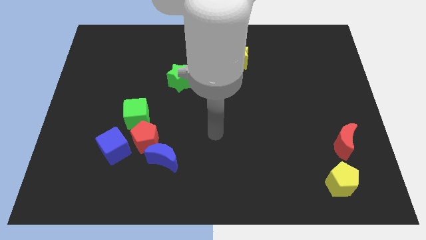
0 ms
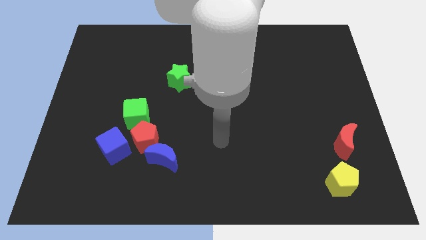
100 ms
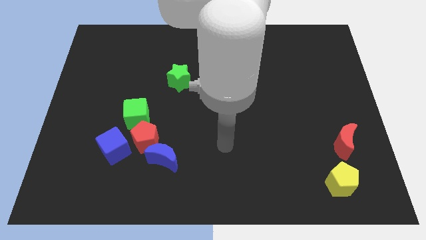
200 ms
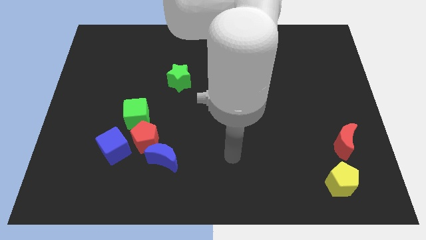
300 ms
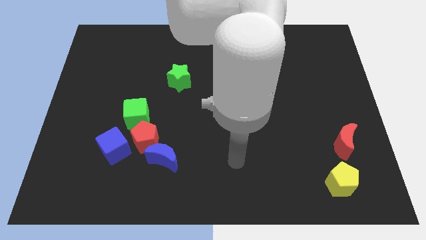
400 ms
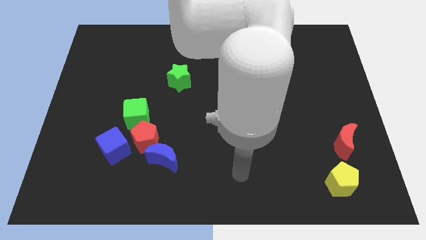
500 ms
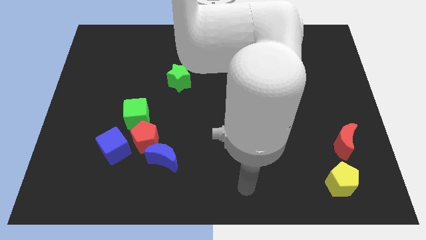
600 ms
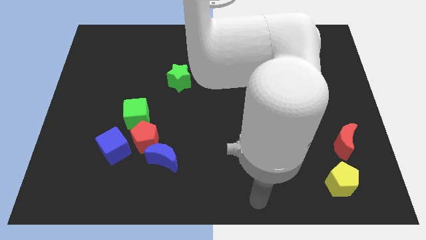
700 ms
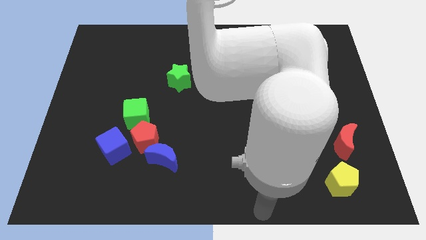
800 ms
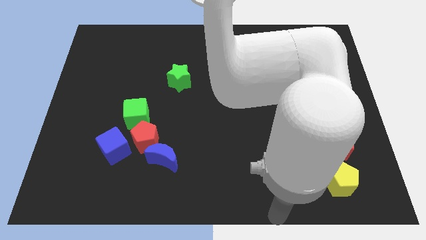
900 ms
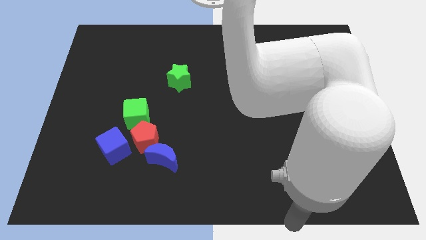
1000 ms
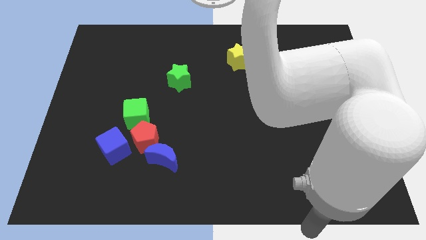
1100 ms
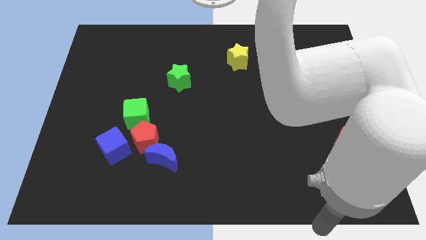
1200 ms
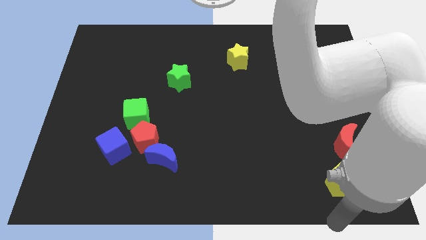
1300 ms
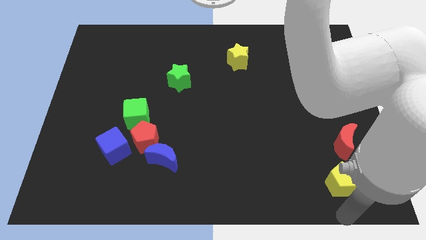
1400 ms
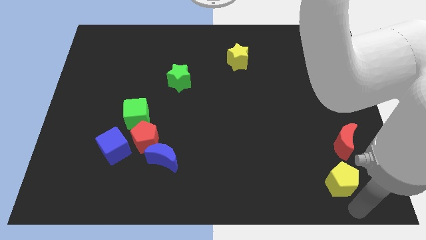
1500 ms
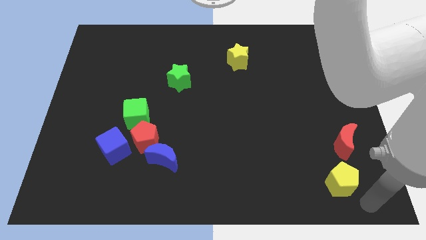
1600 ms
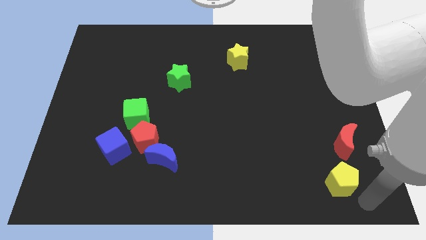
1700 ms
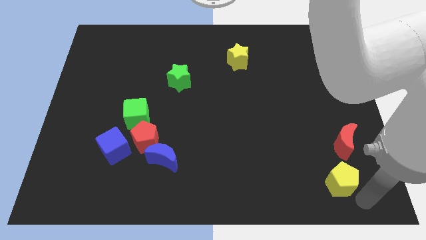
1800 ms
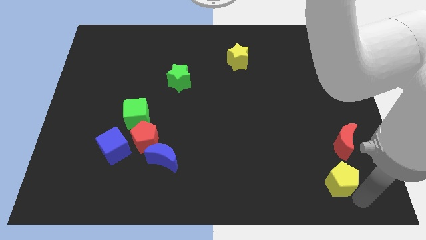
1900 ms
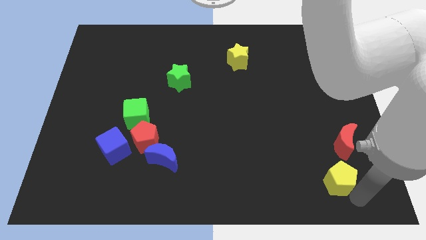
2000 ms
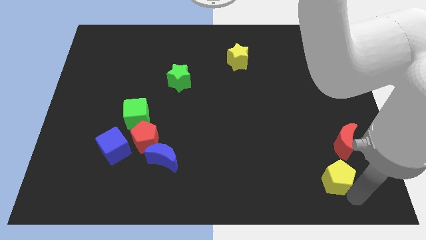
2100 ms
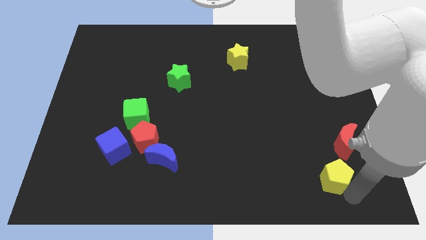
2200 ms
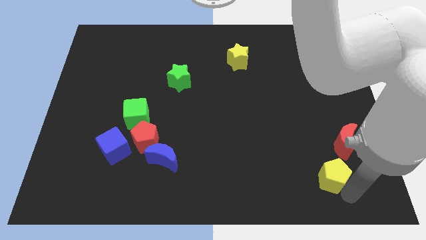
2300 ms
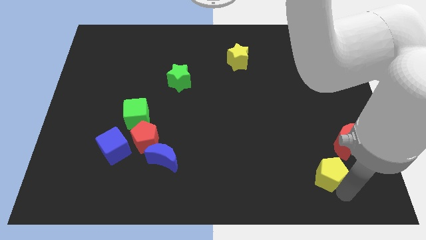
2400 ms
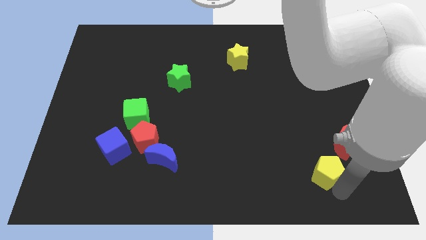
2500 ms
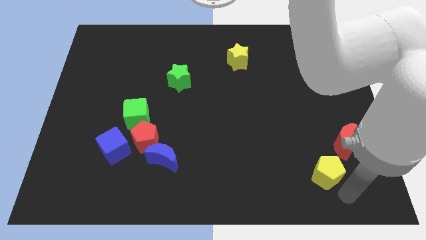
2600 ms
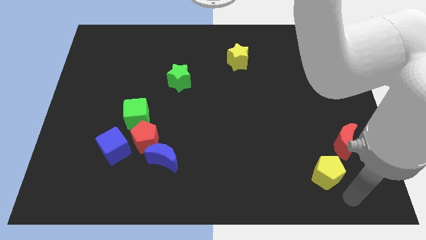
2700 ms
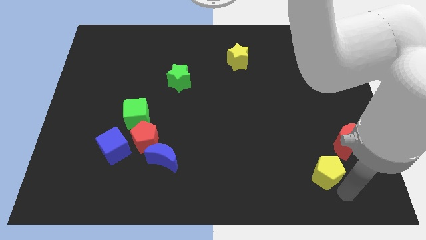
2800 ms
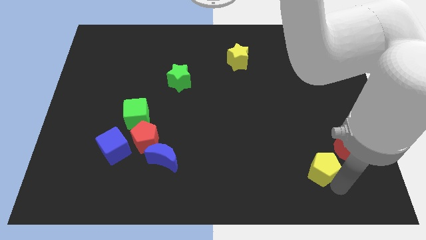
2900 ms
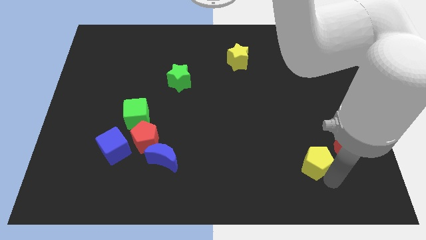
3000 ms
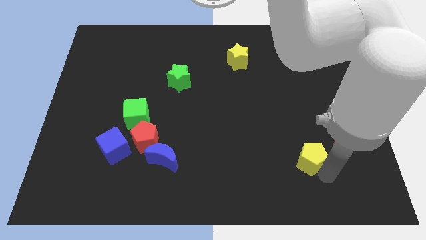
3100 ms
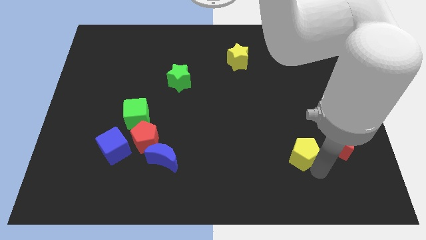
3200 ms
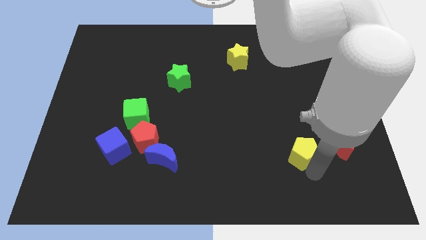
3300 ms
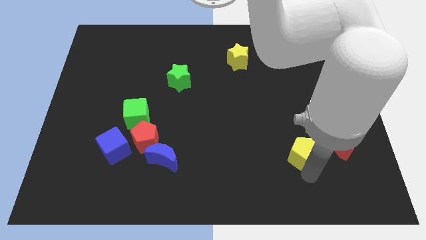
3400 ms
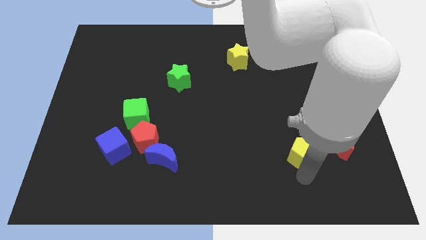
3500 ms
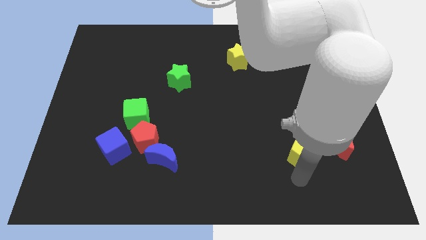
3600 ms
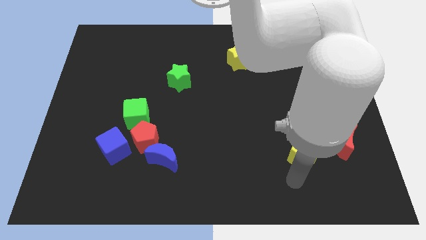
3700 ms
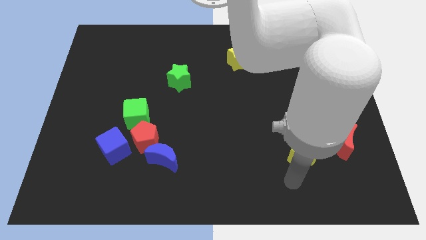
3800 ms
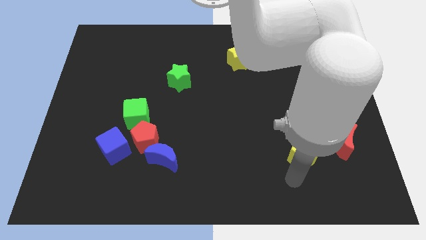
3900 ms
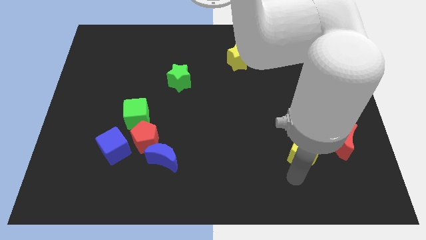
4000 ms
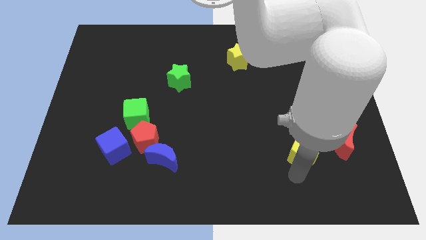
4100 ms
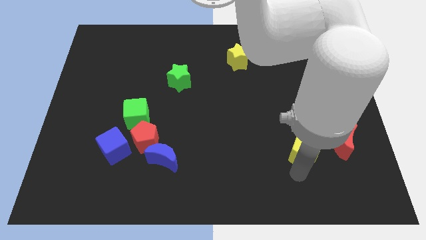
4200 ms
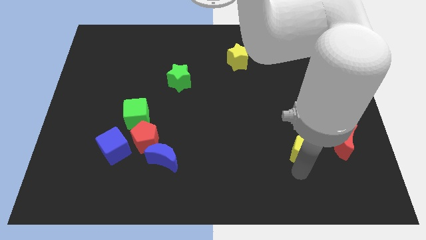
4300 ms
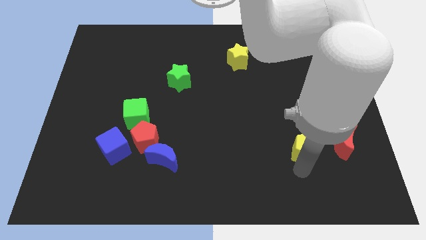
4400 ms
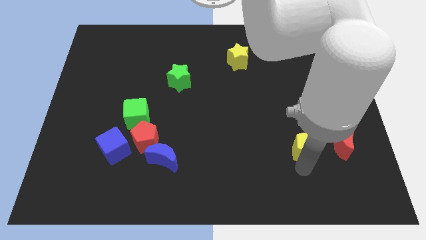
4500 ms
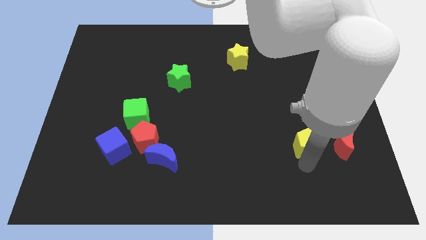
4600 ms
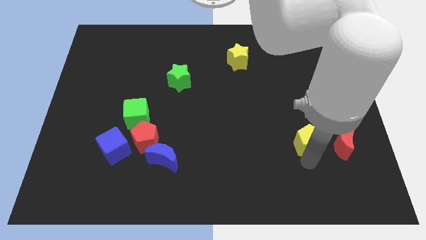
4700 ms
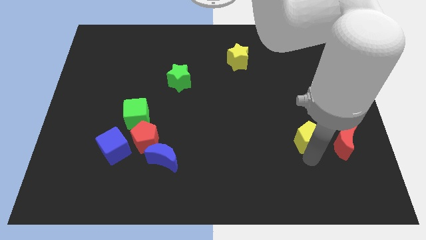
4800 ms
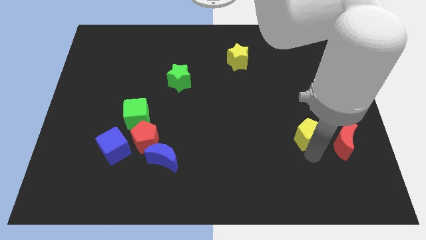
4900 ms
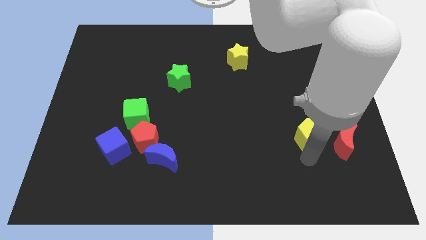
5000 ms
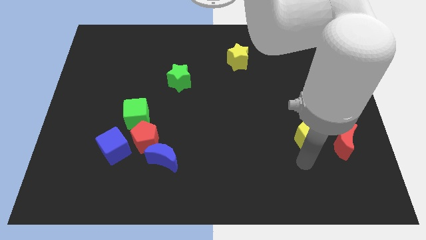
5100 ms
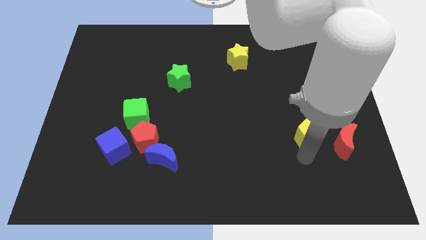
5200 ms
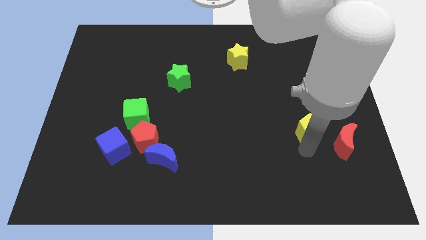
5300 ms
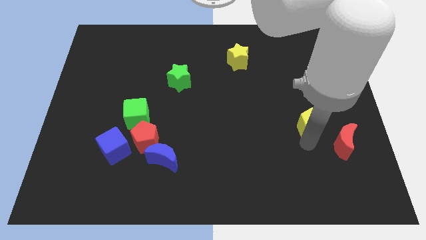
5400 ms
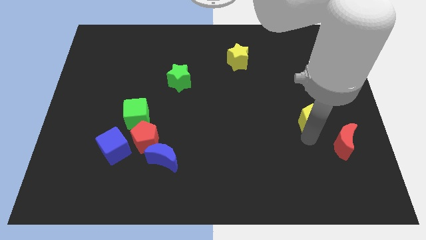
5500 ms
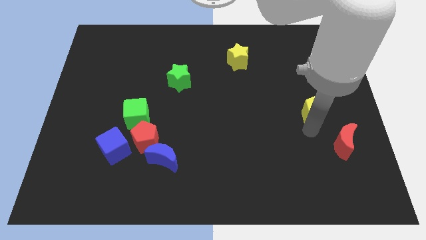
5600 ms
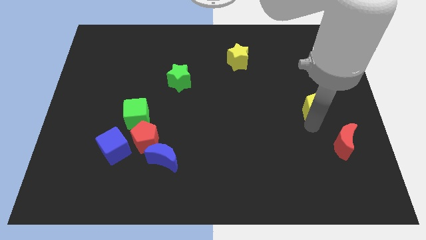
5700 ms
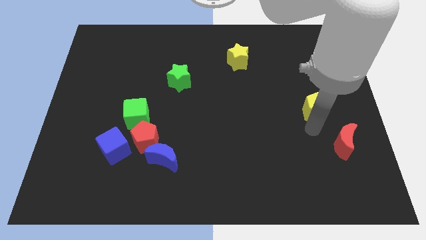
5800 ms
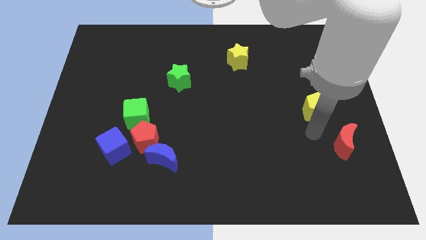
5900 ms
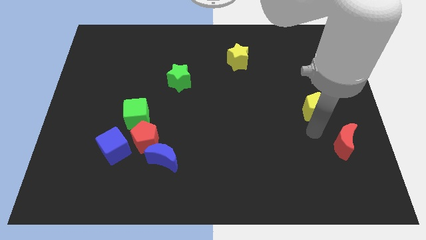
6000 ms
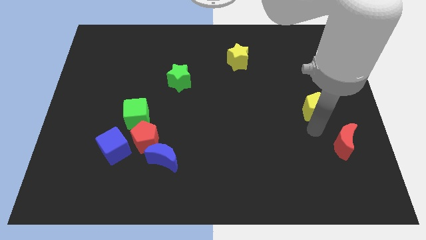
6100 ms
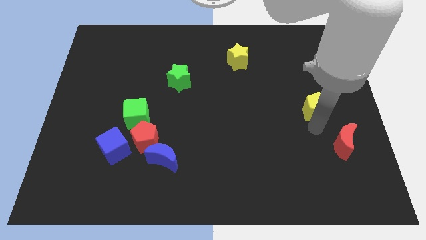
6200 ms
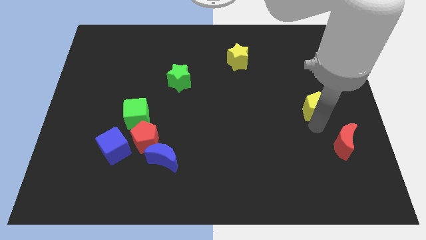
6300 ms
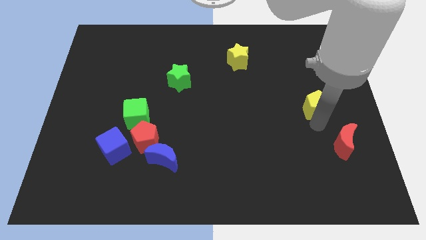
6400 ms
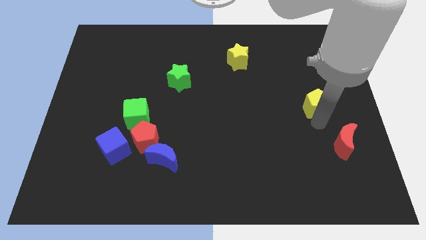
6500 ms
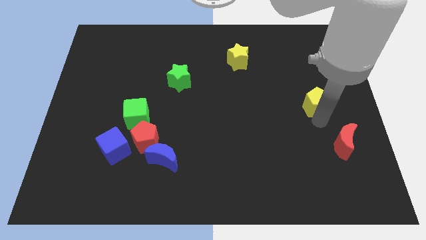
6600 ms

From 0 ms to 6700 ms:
push the yellow pentagon upwards

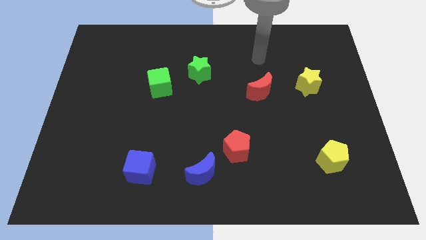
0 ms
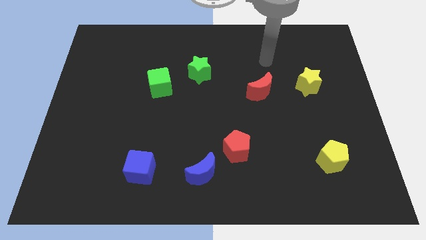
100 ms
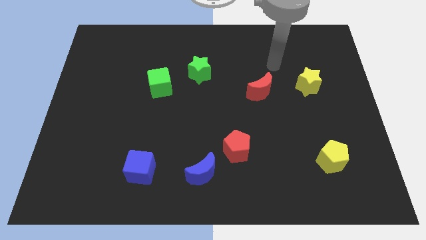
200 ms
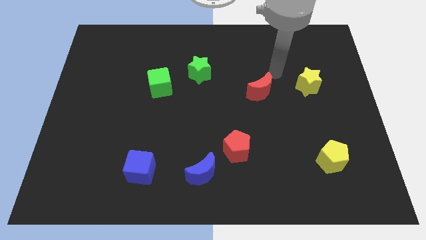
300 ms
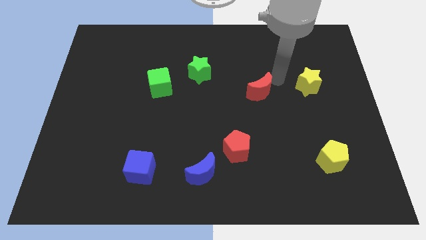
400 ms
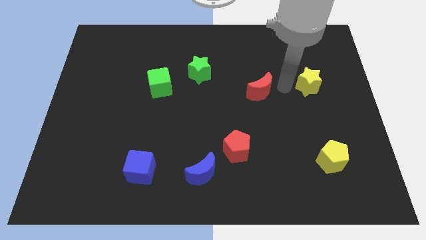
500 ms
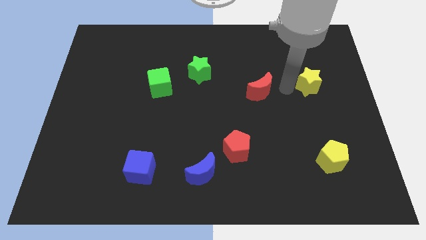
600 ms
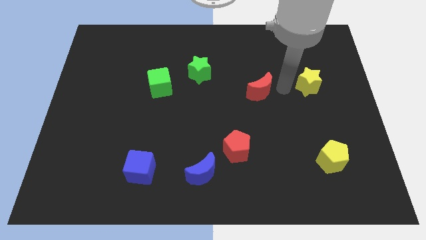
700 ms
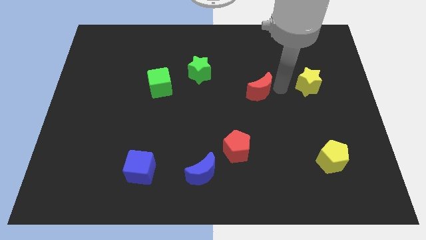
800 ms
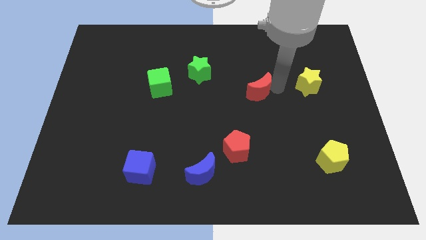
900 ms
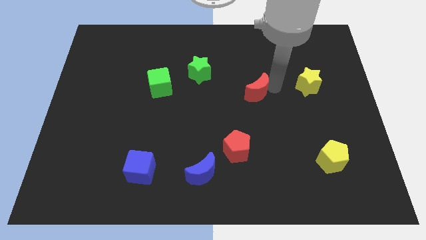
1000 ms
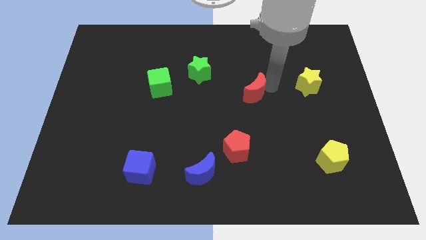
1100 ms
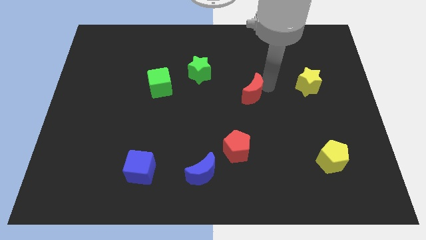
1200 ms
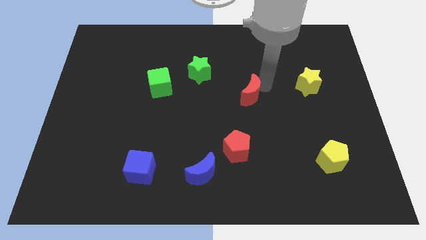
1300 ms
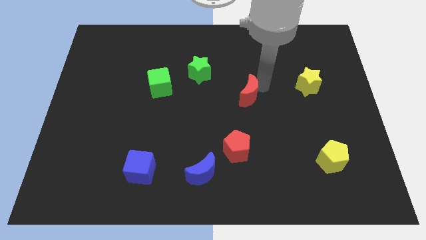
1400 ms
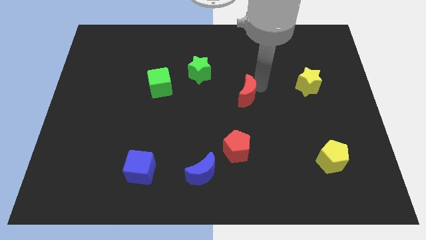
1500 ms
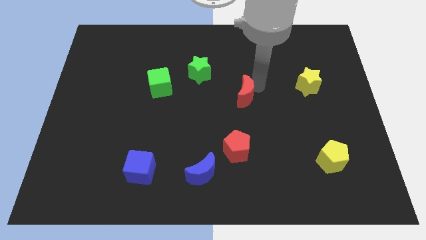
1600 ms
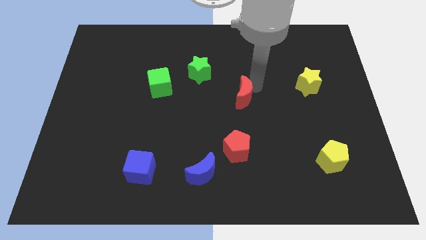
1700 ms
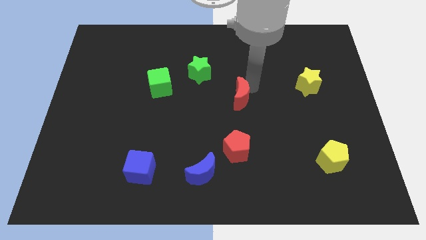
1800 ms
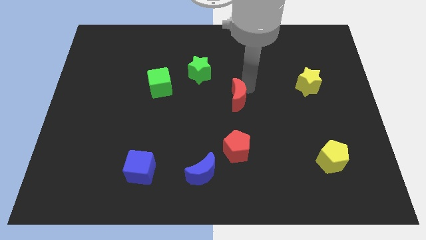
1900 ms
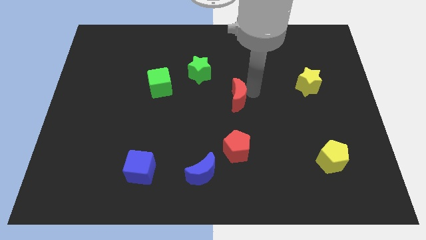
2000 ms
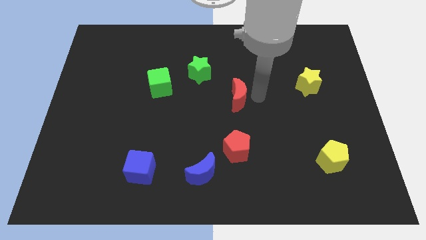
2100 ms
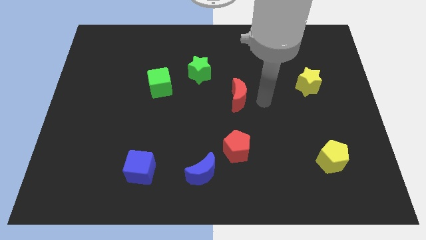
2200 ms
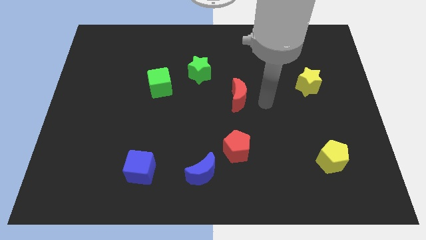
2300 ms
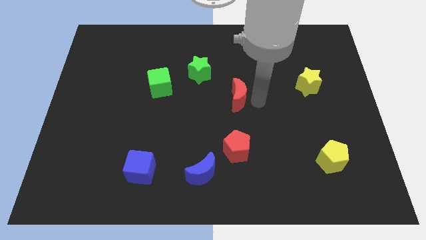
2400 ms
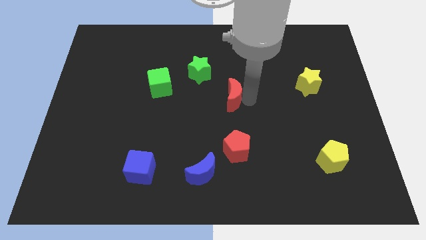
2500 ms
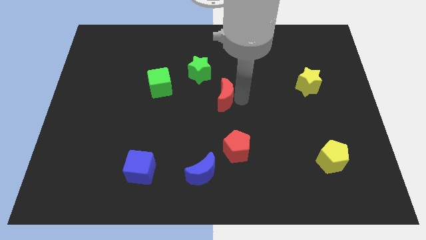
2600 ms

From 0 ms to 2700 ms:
move the red moon left a little bit
